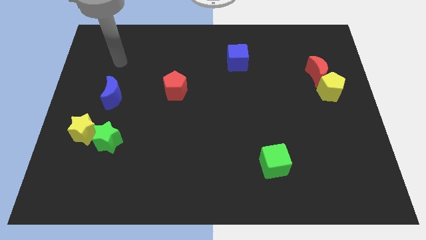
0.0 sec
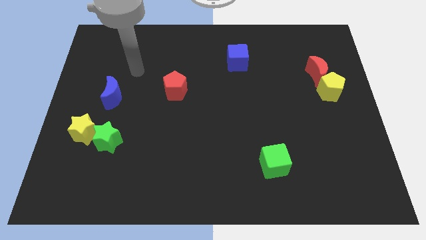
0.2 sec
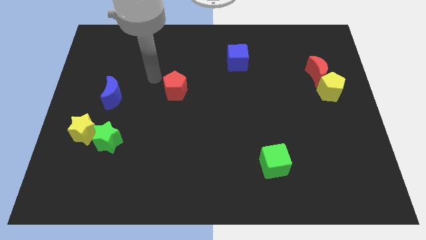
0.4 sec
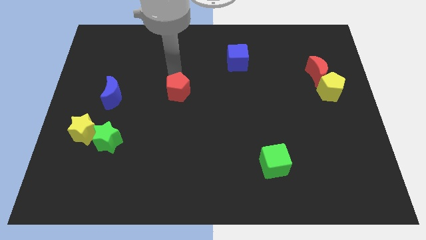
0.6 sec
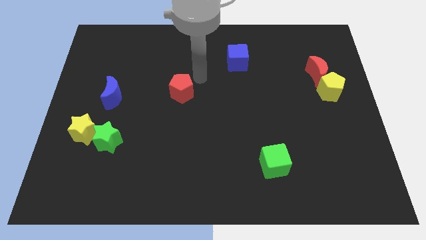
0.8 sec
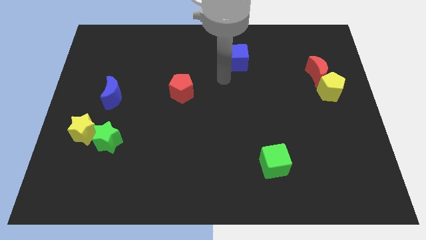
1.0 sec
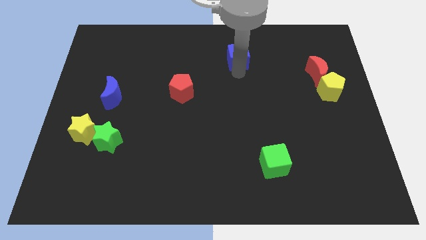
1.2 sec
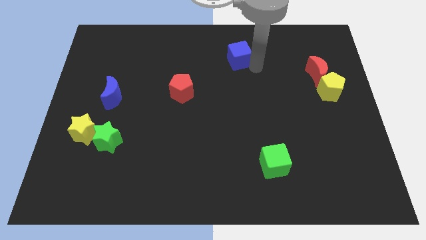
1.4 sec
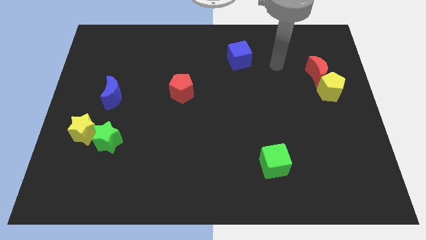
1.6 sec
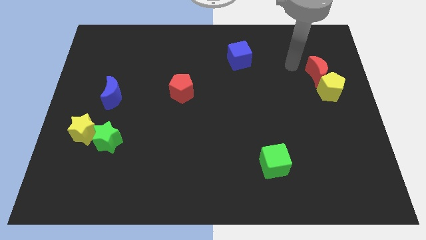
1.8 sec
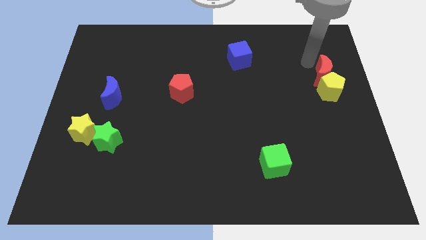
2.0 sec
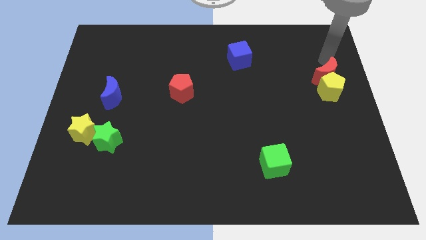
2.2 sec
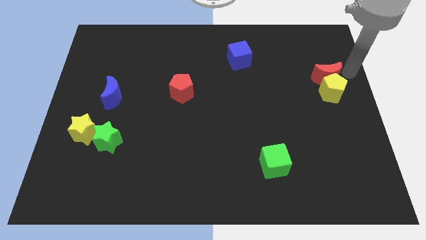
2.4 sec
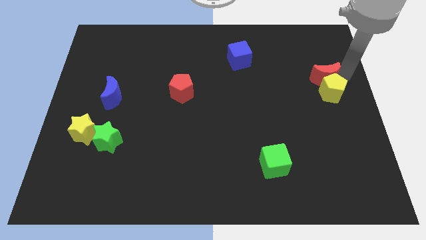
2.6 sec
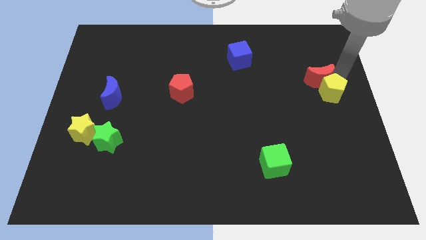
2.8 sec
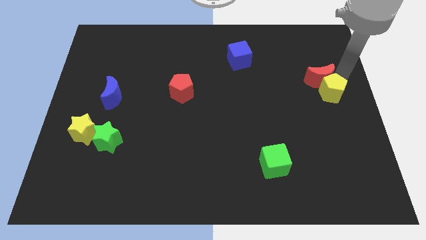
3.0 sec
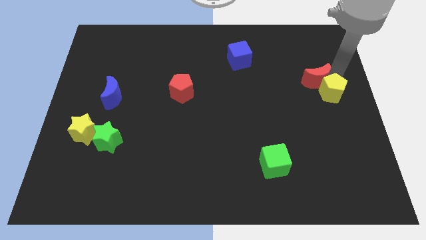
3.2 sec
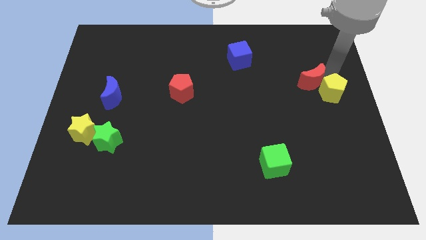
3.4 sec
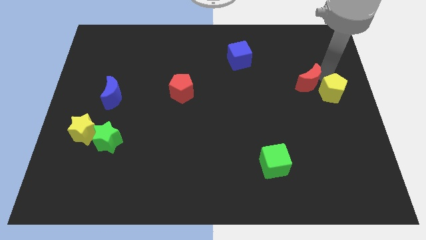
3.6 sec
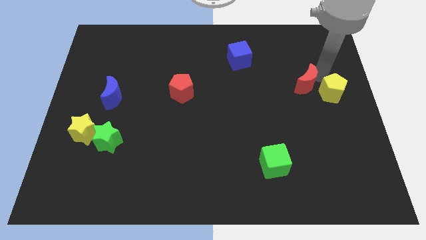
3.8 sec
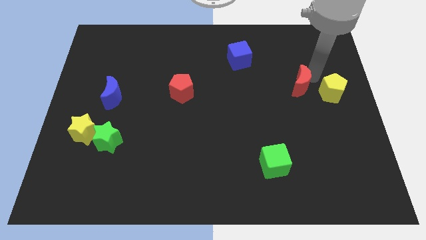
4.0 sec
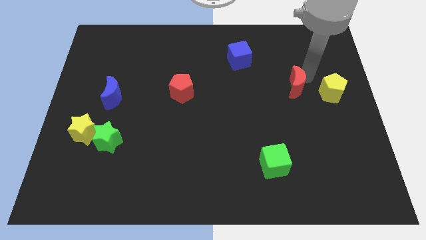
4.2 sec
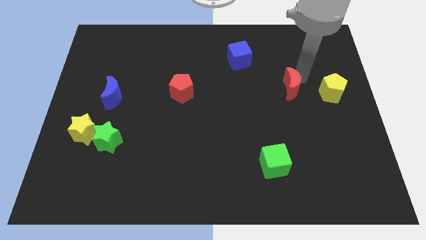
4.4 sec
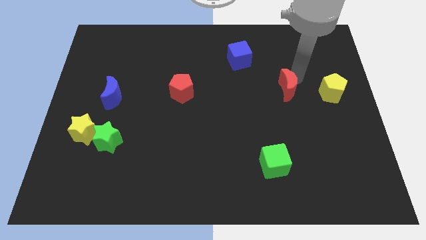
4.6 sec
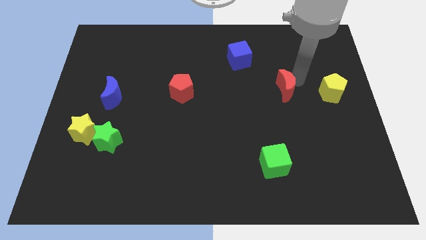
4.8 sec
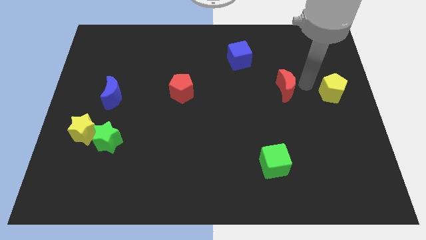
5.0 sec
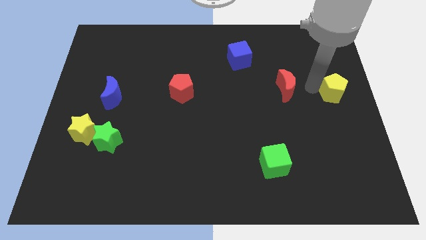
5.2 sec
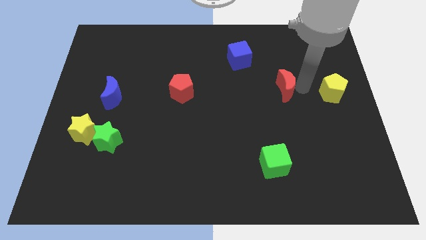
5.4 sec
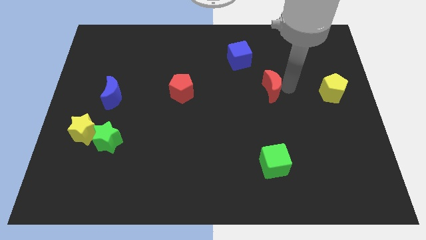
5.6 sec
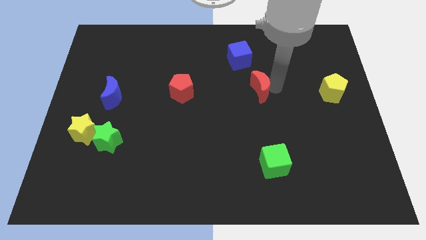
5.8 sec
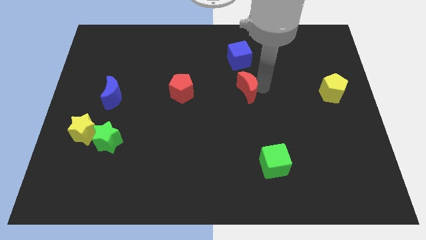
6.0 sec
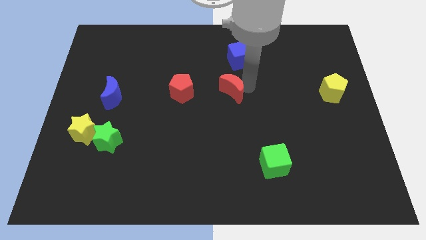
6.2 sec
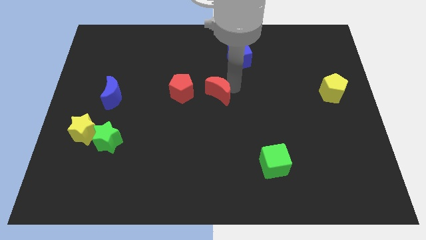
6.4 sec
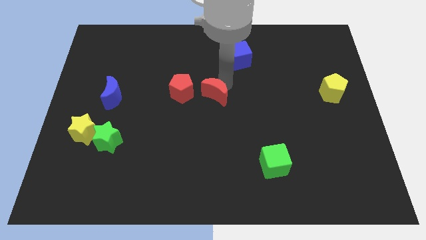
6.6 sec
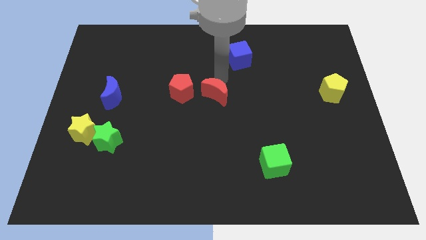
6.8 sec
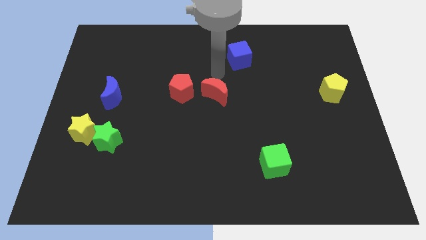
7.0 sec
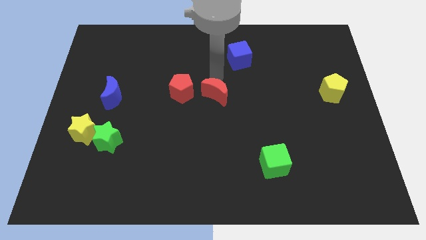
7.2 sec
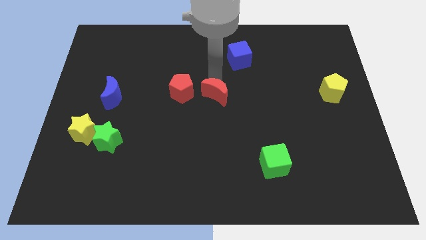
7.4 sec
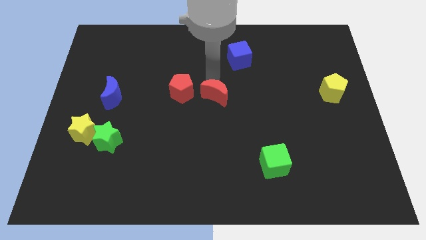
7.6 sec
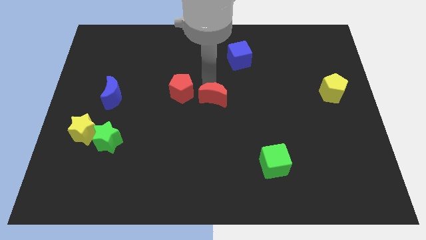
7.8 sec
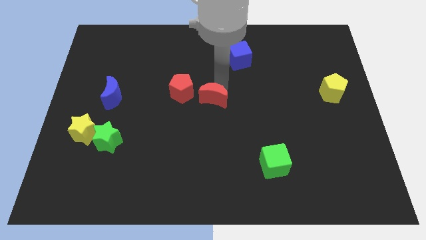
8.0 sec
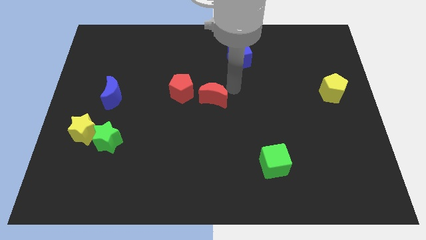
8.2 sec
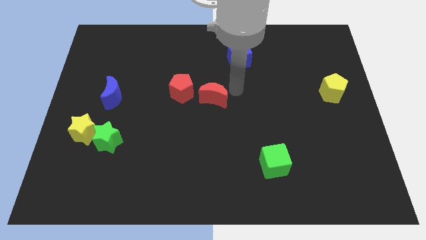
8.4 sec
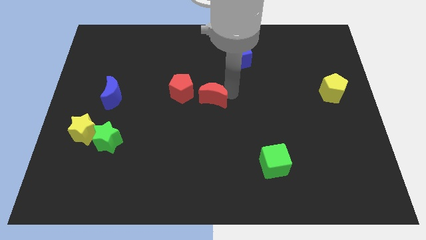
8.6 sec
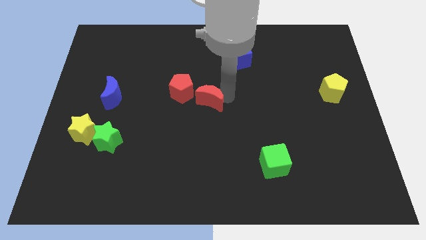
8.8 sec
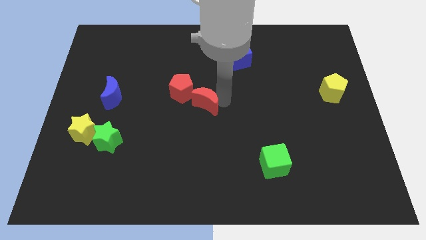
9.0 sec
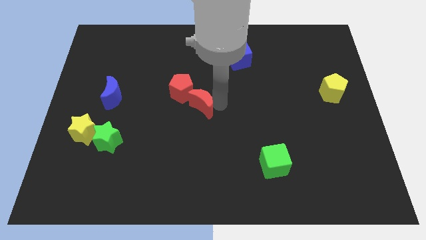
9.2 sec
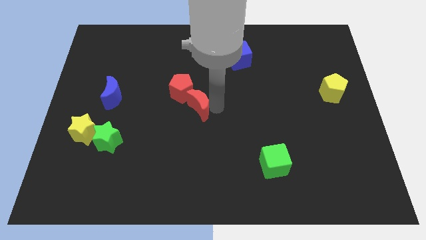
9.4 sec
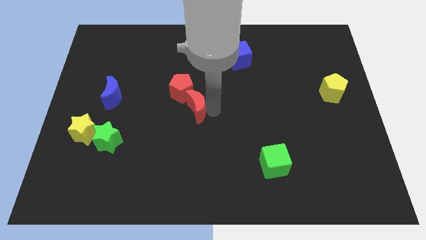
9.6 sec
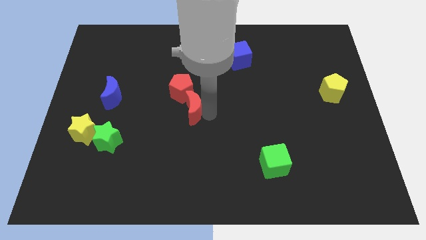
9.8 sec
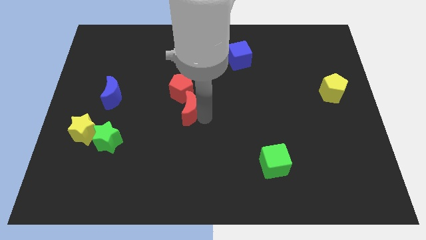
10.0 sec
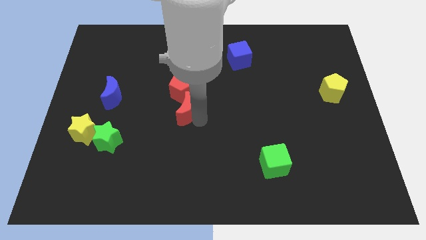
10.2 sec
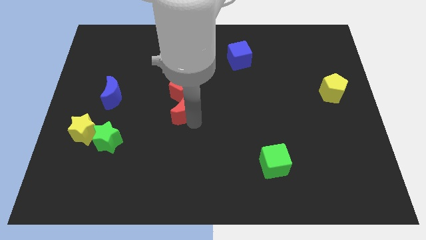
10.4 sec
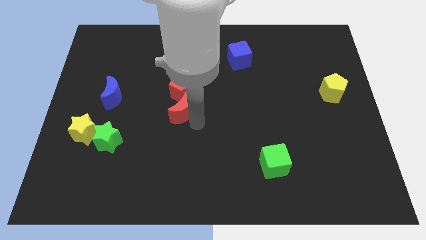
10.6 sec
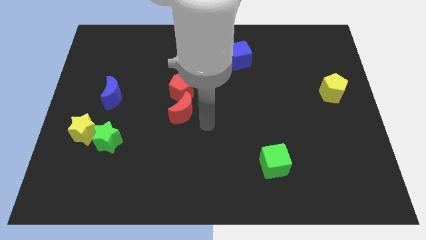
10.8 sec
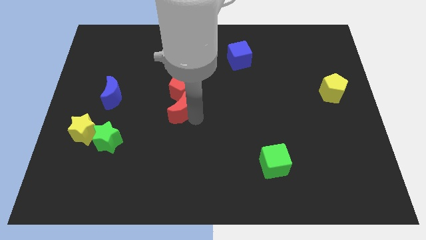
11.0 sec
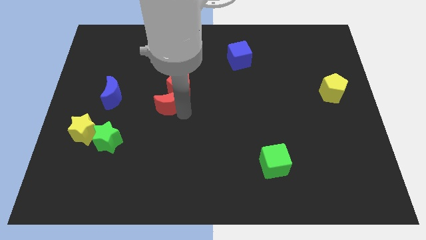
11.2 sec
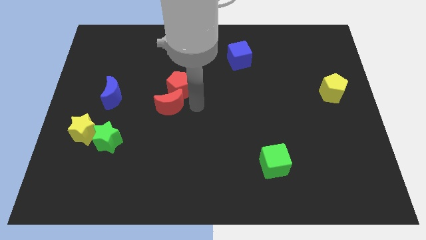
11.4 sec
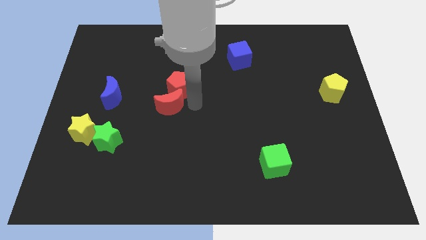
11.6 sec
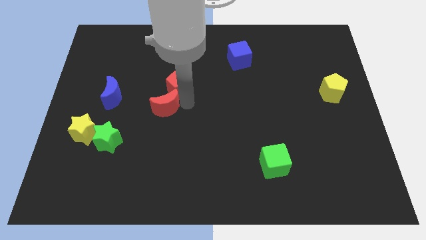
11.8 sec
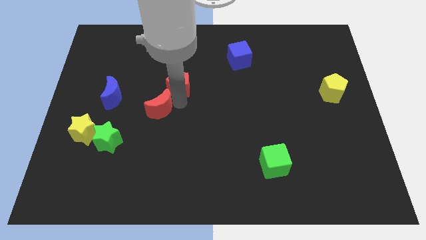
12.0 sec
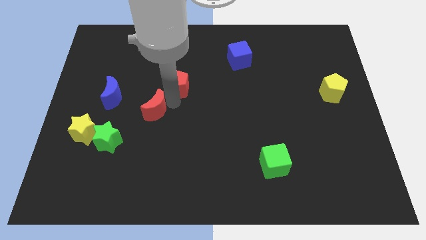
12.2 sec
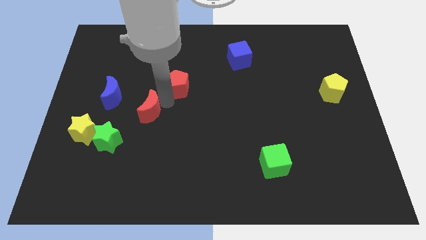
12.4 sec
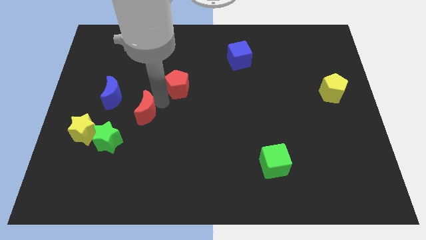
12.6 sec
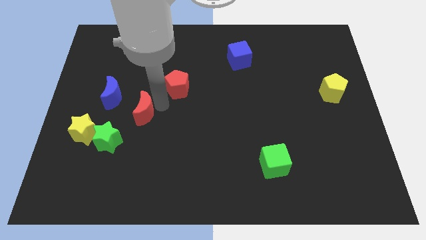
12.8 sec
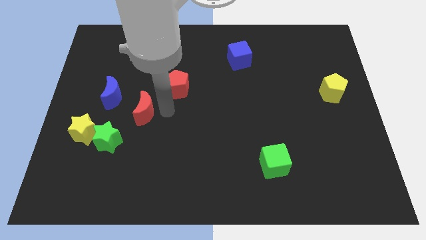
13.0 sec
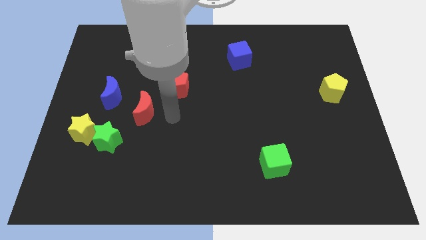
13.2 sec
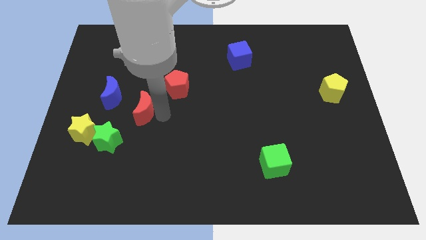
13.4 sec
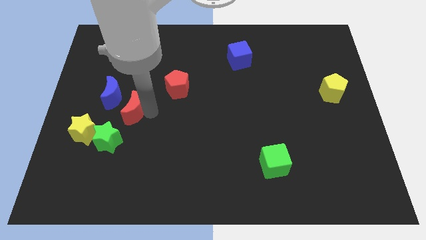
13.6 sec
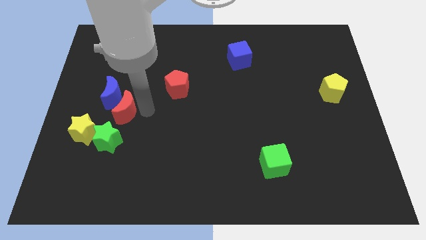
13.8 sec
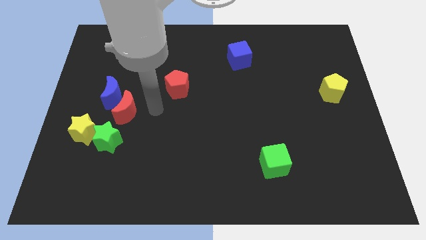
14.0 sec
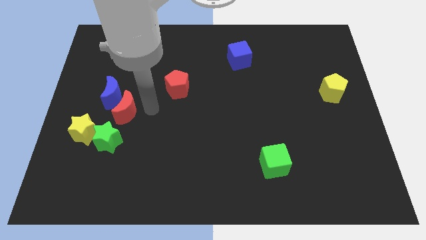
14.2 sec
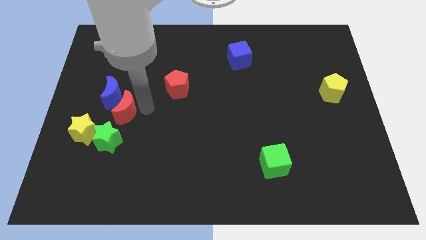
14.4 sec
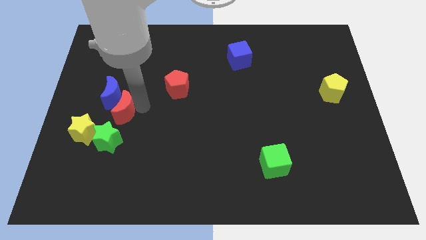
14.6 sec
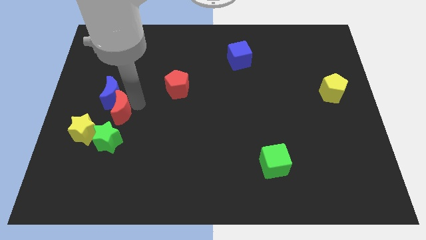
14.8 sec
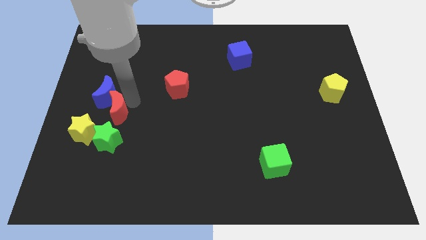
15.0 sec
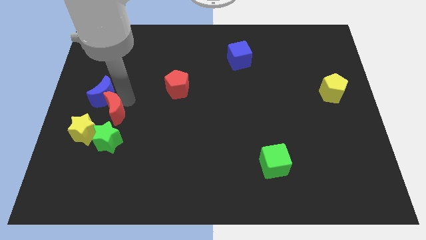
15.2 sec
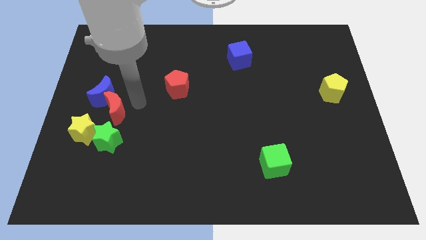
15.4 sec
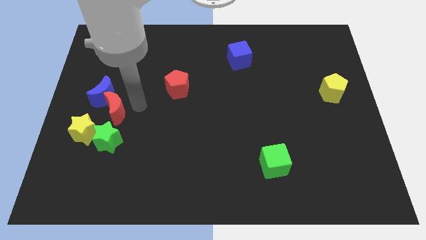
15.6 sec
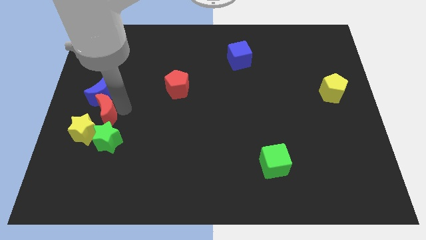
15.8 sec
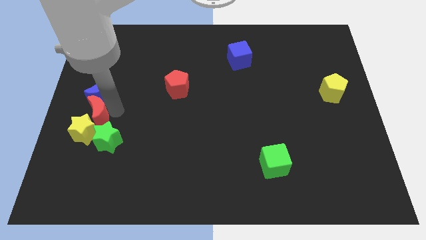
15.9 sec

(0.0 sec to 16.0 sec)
slide the red moon towards the yellow star
